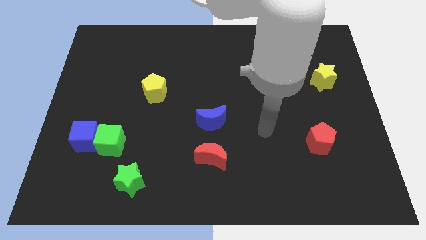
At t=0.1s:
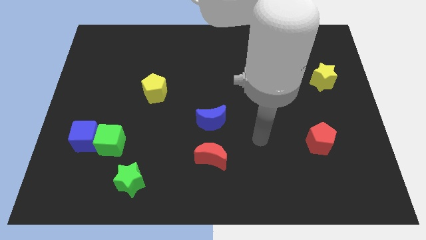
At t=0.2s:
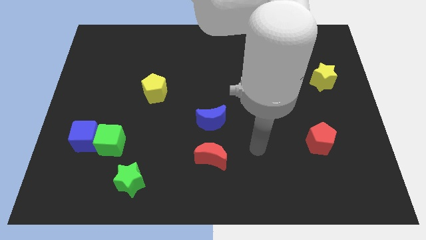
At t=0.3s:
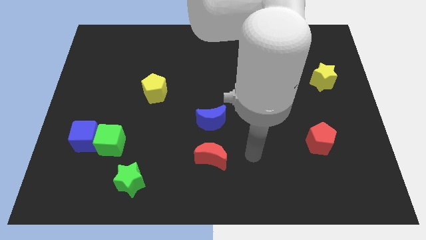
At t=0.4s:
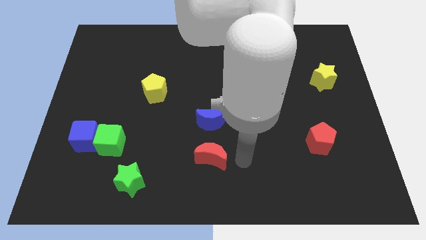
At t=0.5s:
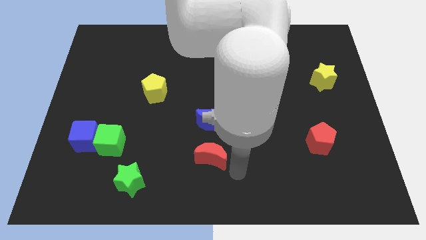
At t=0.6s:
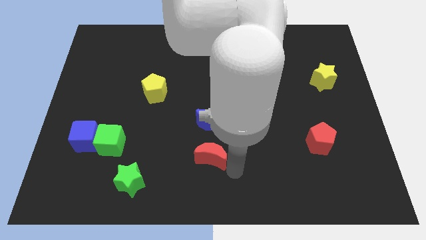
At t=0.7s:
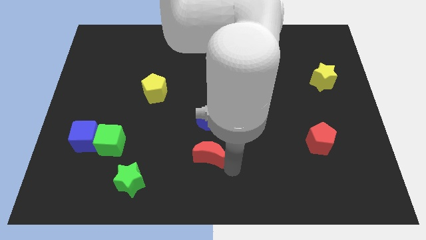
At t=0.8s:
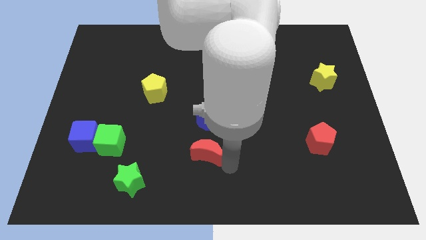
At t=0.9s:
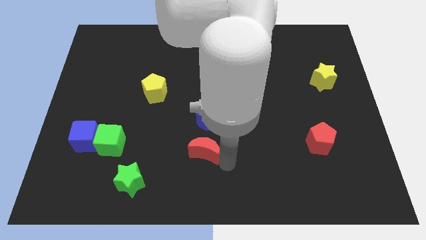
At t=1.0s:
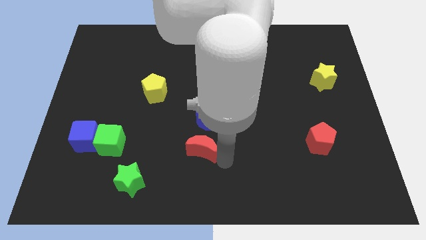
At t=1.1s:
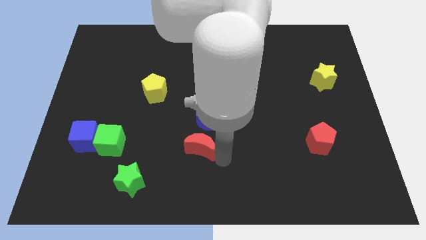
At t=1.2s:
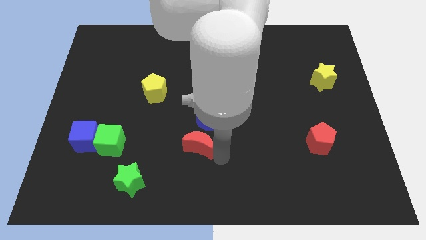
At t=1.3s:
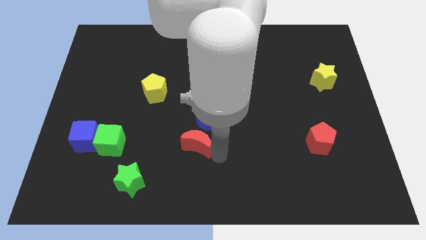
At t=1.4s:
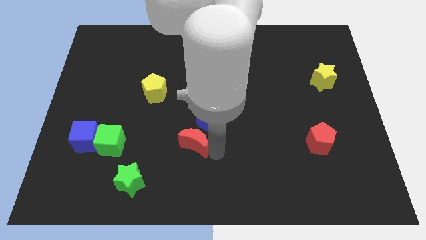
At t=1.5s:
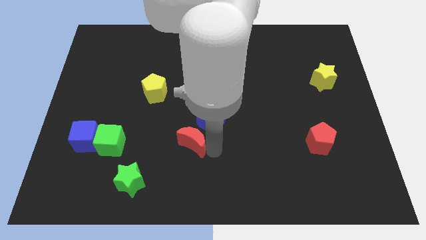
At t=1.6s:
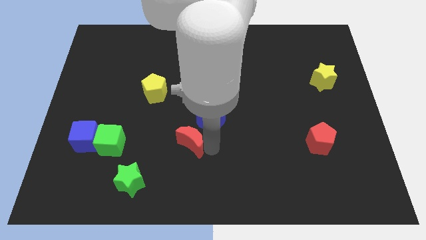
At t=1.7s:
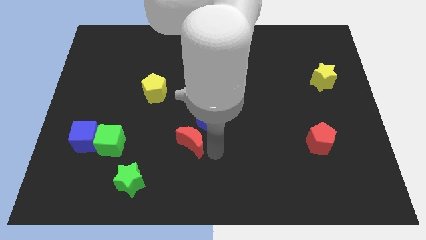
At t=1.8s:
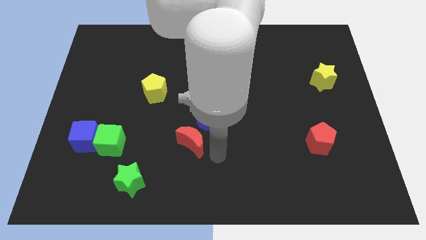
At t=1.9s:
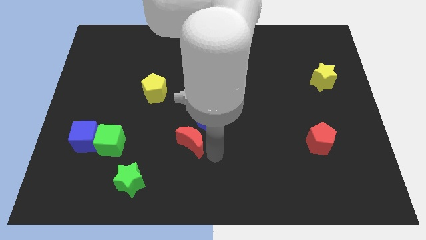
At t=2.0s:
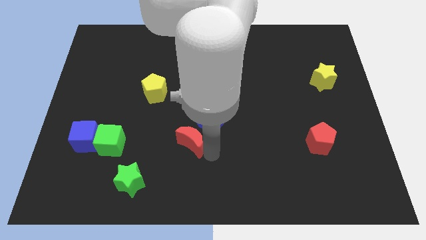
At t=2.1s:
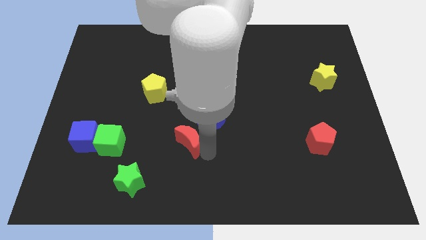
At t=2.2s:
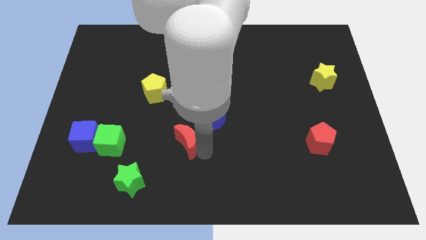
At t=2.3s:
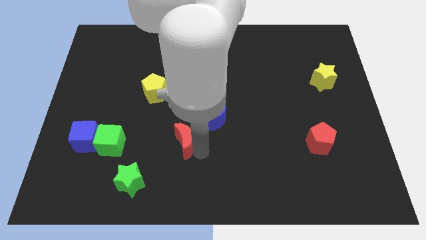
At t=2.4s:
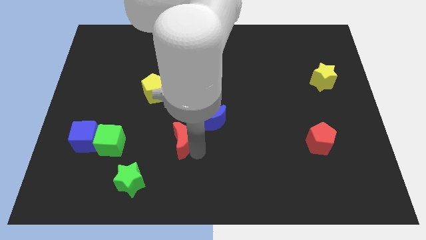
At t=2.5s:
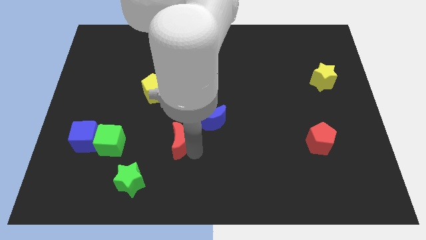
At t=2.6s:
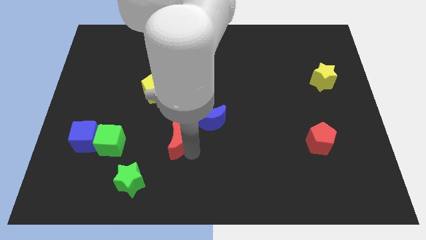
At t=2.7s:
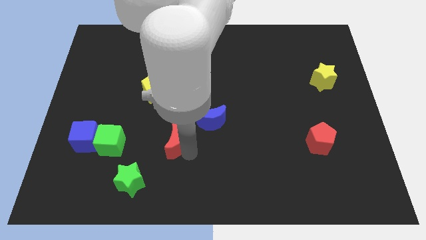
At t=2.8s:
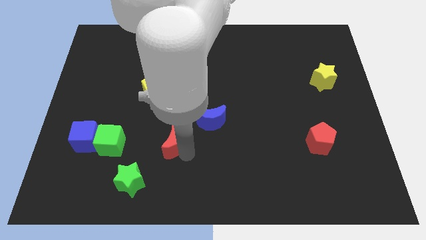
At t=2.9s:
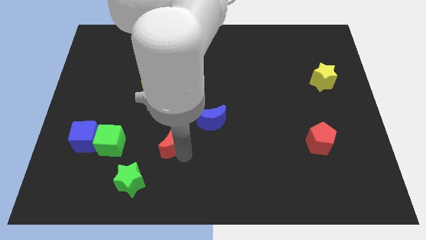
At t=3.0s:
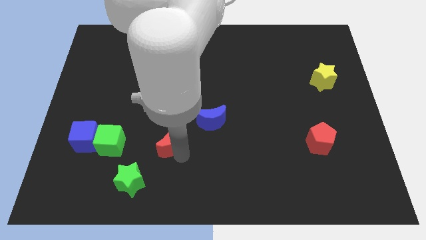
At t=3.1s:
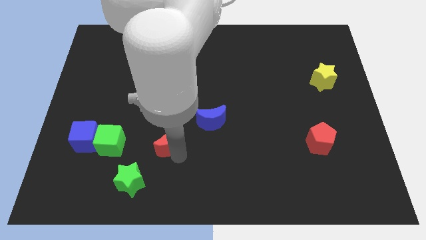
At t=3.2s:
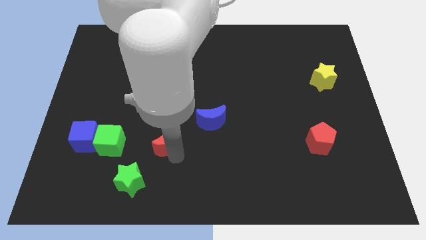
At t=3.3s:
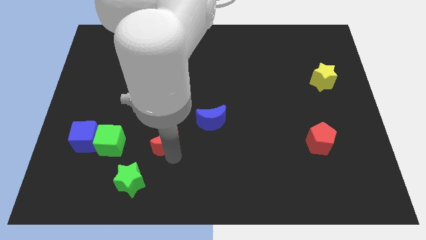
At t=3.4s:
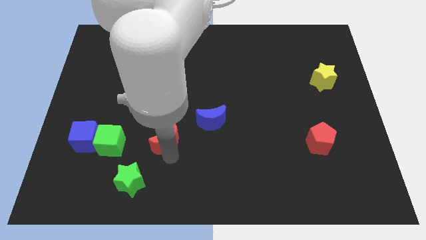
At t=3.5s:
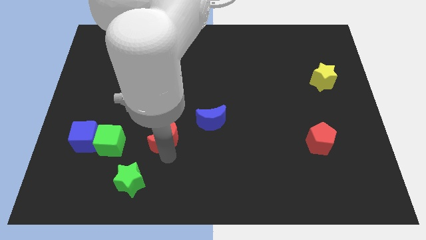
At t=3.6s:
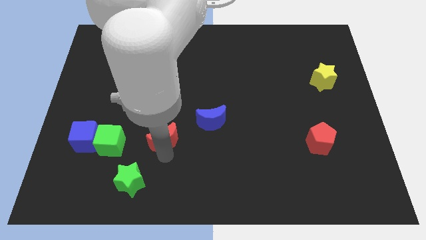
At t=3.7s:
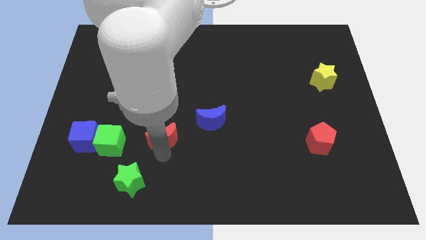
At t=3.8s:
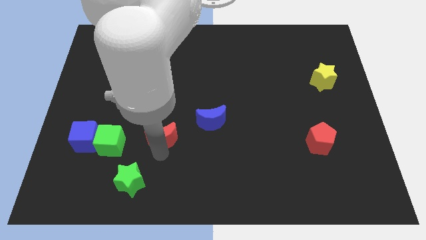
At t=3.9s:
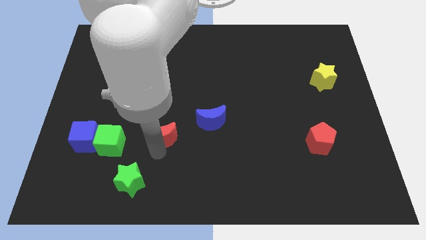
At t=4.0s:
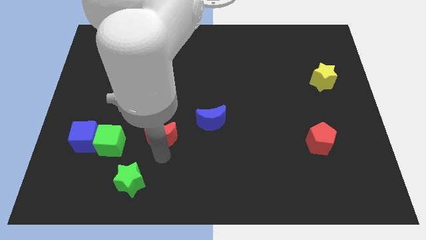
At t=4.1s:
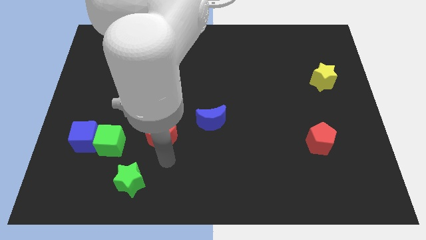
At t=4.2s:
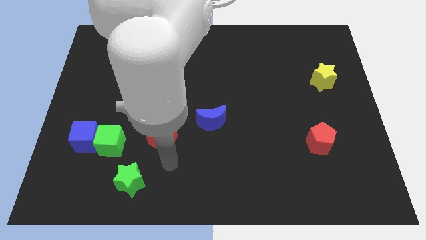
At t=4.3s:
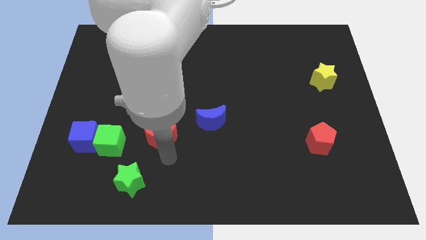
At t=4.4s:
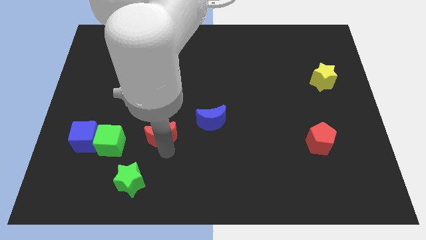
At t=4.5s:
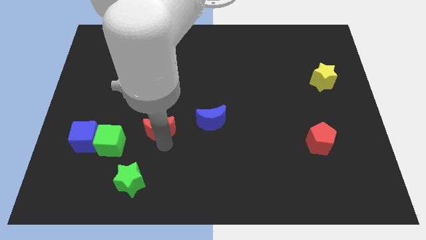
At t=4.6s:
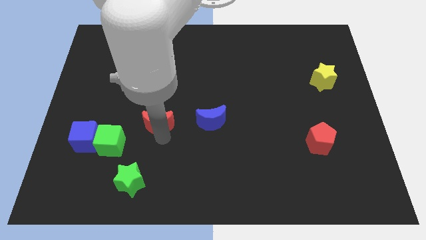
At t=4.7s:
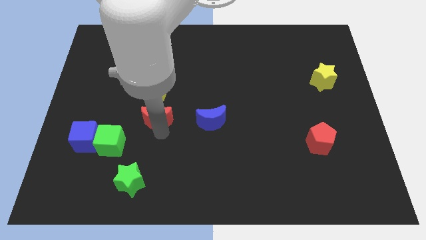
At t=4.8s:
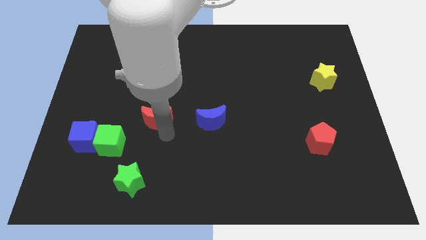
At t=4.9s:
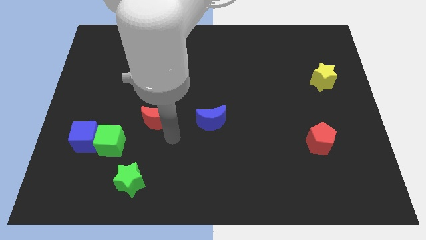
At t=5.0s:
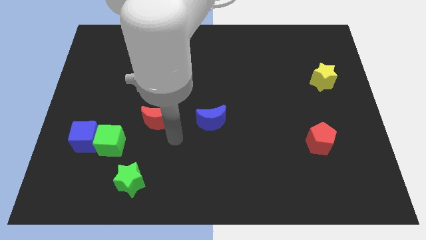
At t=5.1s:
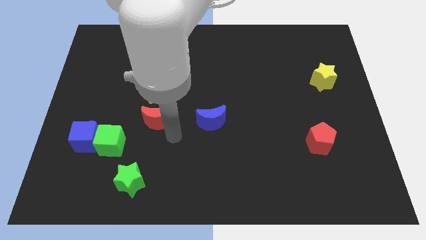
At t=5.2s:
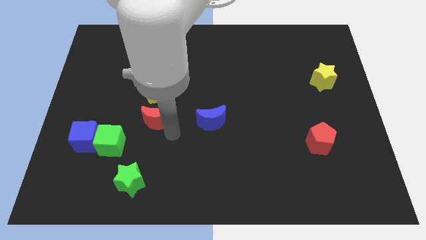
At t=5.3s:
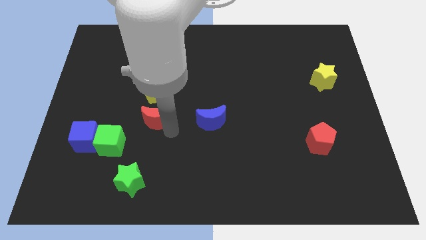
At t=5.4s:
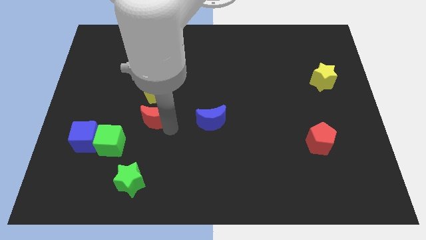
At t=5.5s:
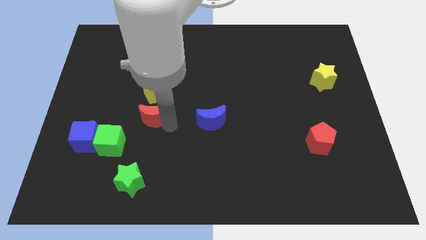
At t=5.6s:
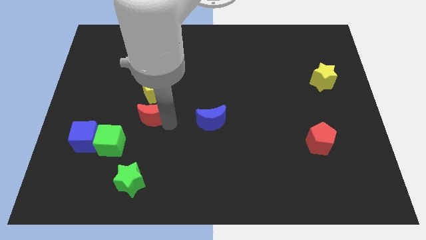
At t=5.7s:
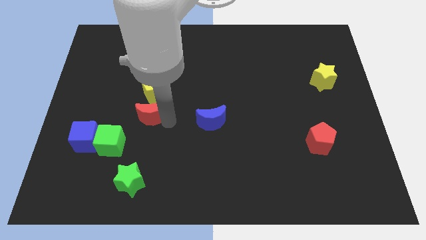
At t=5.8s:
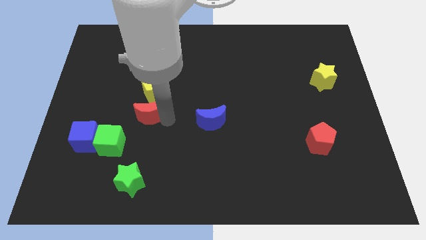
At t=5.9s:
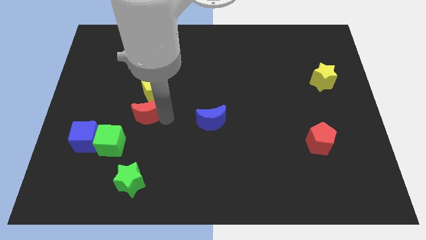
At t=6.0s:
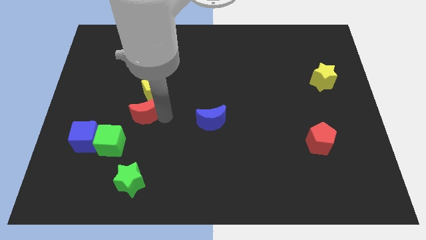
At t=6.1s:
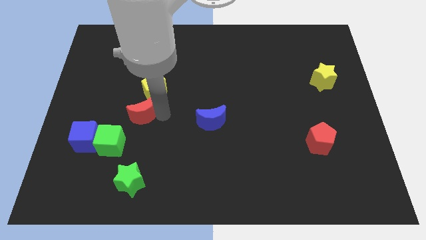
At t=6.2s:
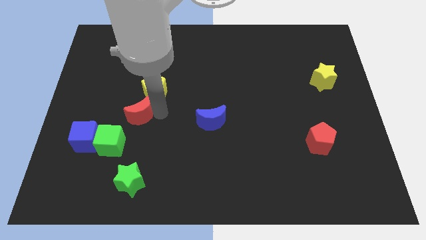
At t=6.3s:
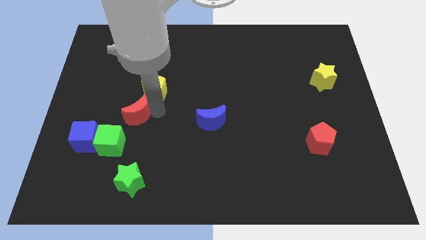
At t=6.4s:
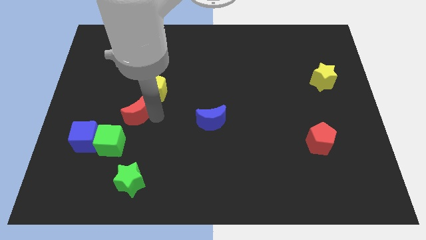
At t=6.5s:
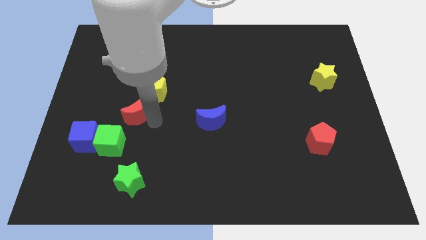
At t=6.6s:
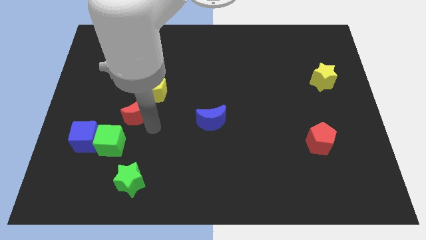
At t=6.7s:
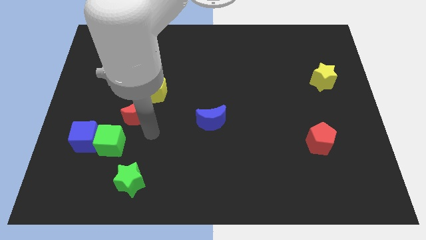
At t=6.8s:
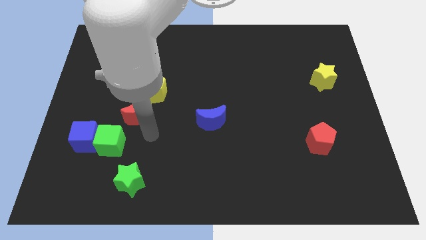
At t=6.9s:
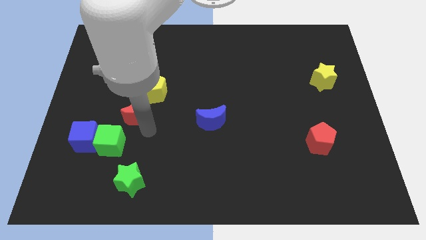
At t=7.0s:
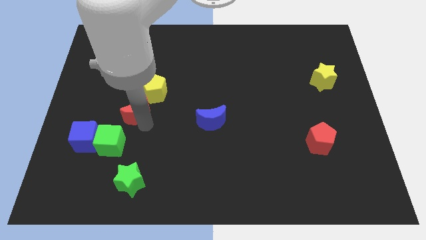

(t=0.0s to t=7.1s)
slide the red moon upwards and left diagonally

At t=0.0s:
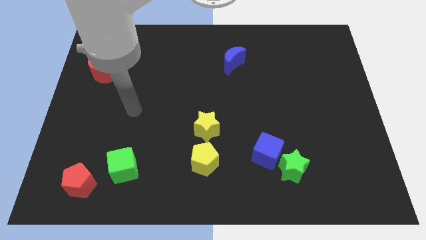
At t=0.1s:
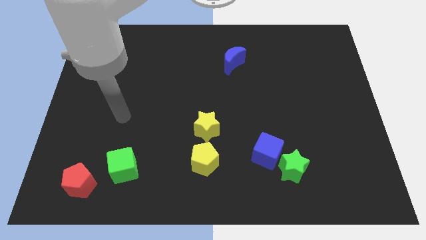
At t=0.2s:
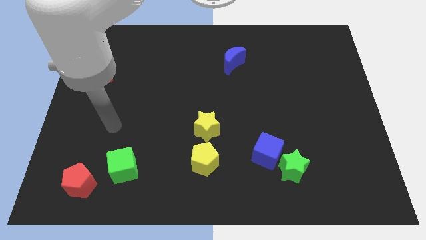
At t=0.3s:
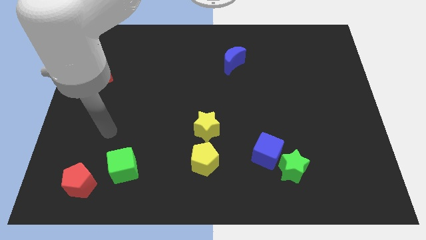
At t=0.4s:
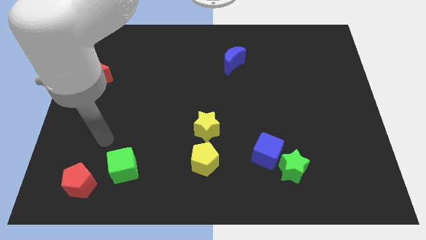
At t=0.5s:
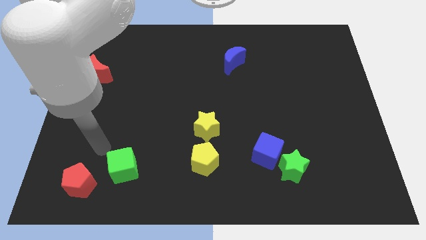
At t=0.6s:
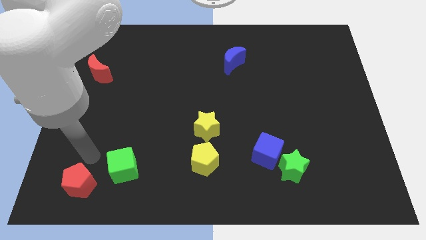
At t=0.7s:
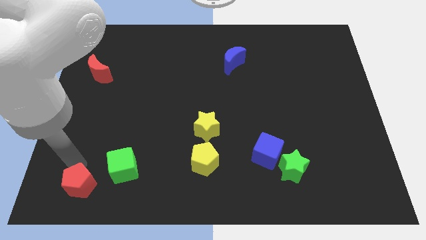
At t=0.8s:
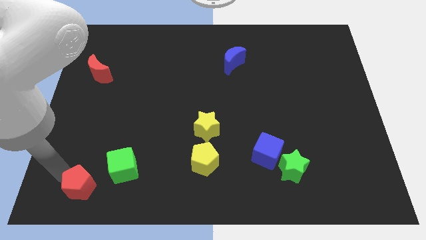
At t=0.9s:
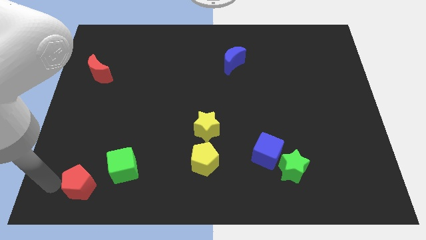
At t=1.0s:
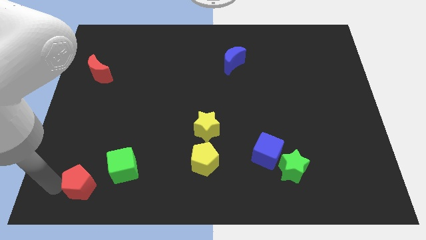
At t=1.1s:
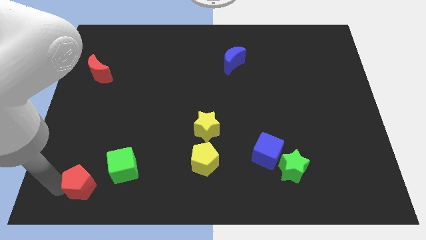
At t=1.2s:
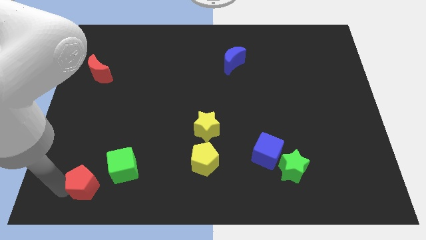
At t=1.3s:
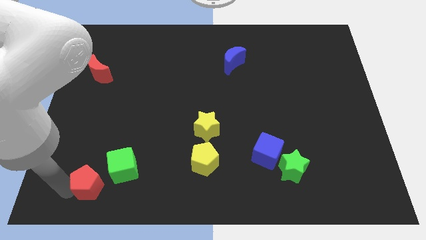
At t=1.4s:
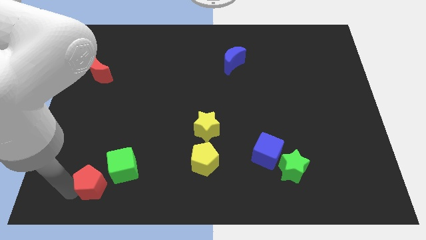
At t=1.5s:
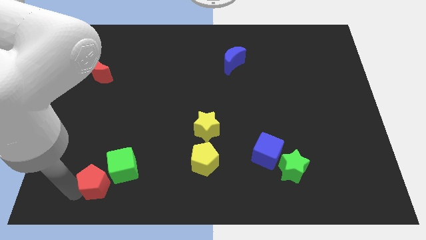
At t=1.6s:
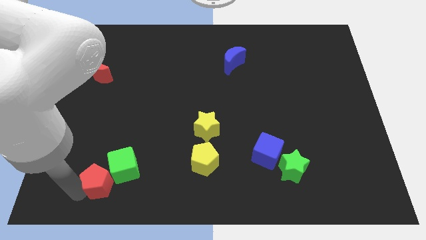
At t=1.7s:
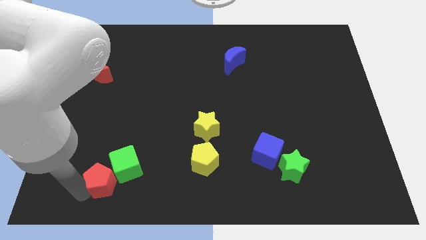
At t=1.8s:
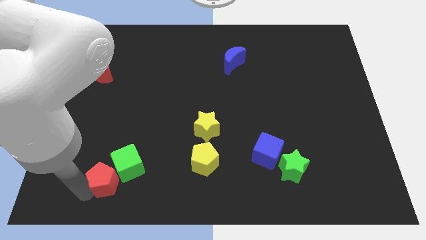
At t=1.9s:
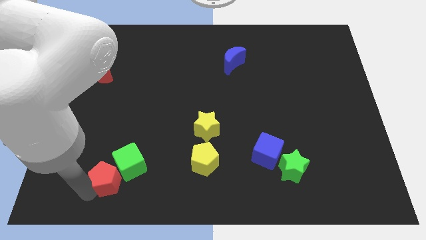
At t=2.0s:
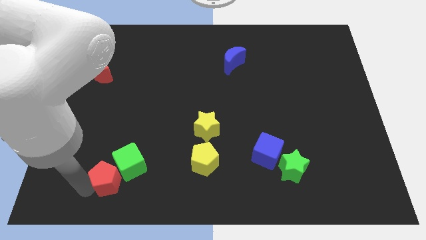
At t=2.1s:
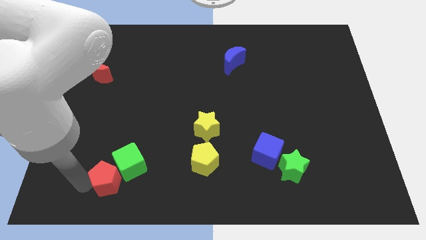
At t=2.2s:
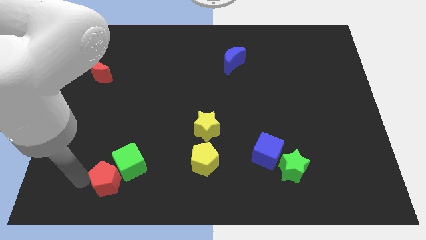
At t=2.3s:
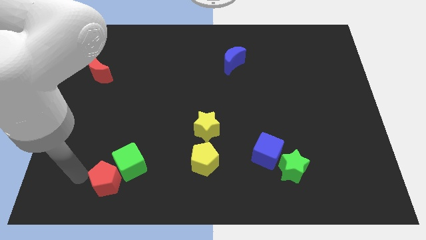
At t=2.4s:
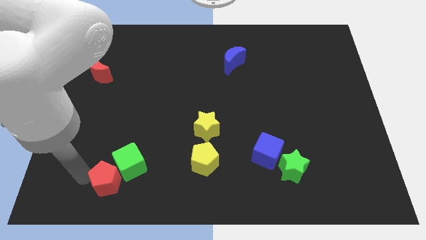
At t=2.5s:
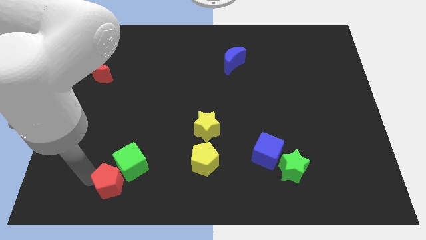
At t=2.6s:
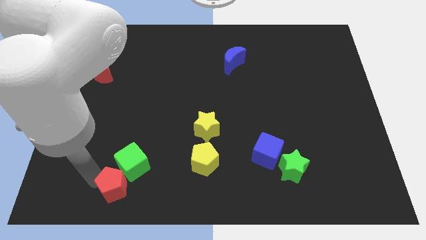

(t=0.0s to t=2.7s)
push the red pentagon to the right a little
